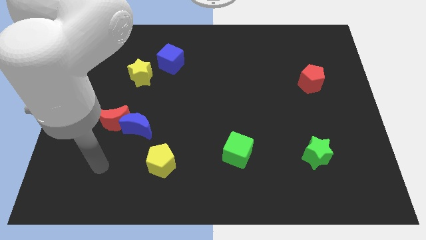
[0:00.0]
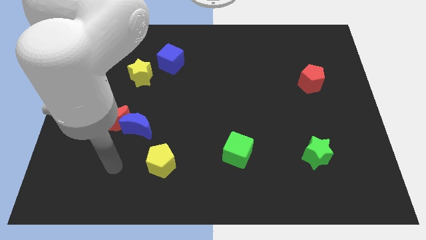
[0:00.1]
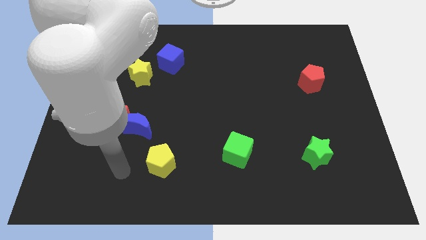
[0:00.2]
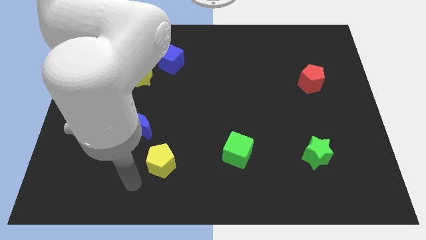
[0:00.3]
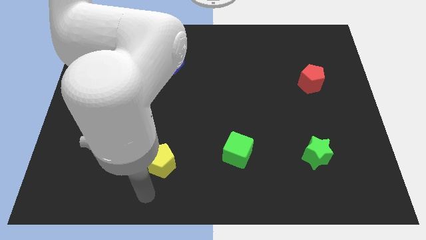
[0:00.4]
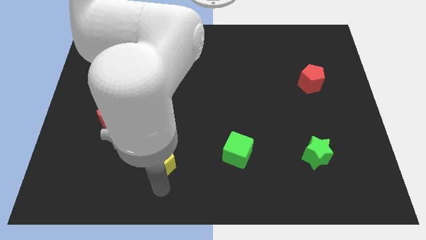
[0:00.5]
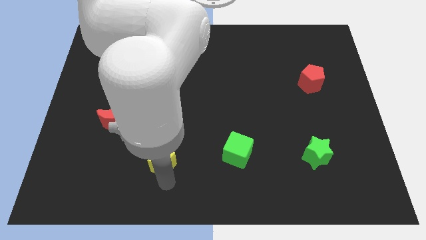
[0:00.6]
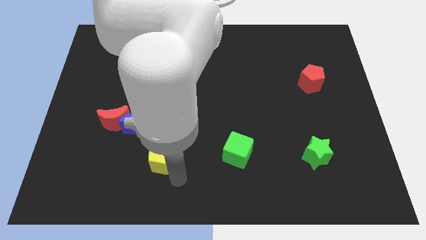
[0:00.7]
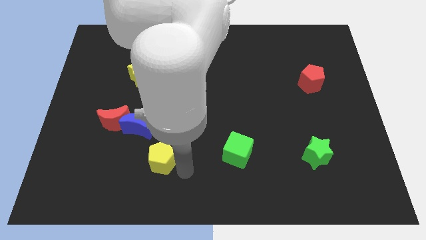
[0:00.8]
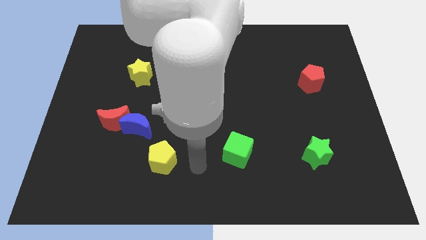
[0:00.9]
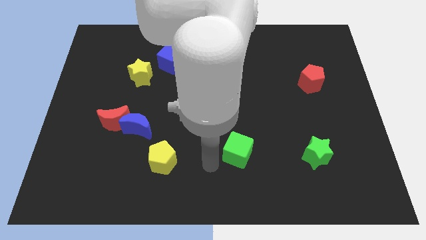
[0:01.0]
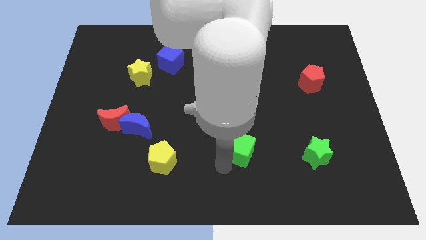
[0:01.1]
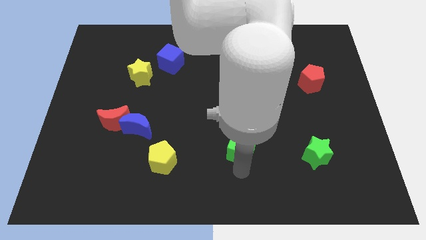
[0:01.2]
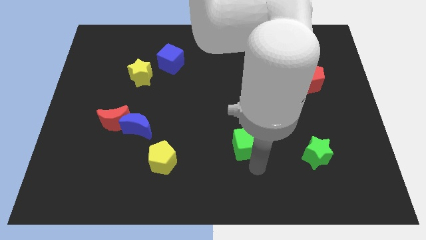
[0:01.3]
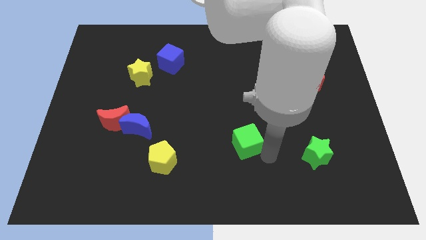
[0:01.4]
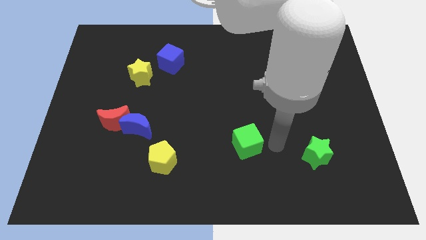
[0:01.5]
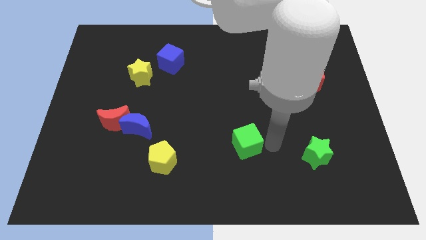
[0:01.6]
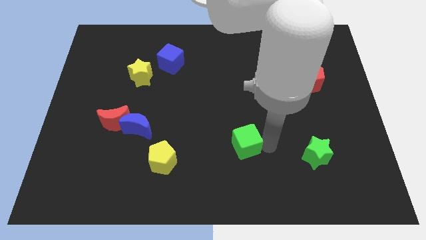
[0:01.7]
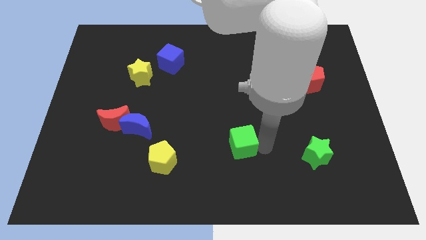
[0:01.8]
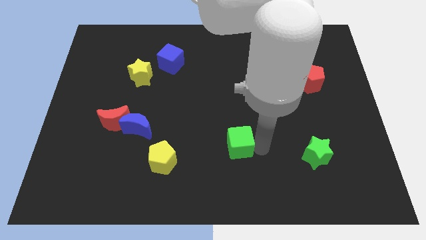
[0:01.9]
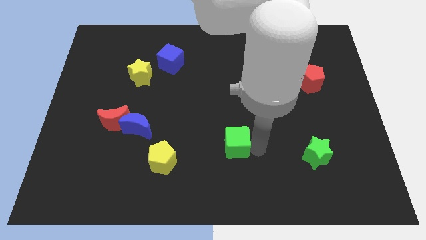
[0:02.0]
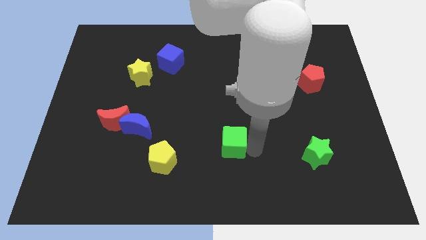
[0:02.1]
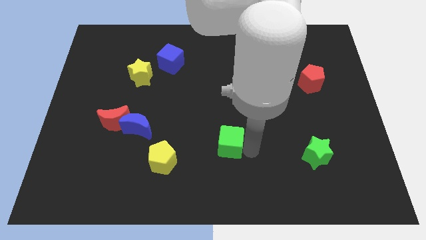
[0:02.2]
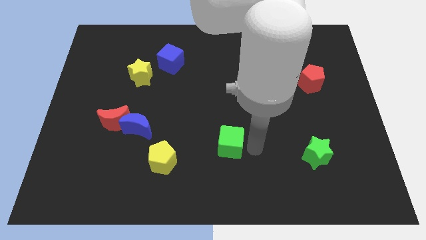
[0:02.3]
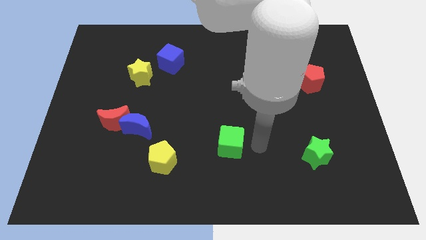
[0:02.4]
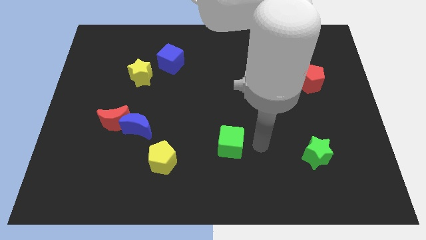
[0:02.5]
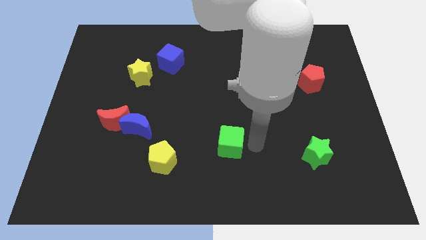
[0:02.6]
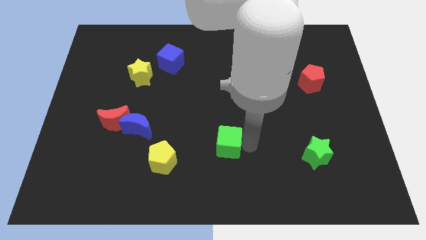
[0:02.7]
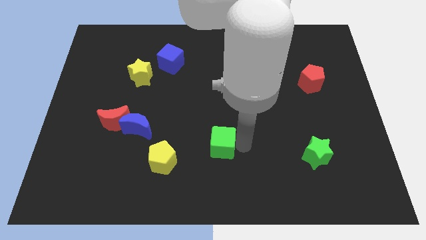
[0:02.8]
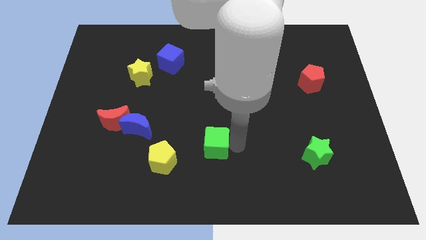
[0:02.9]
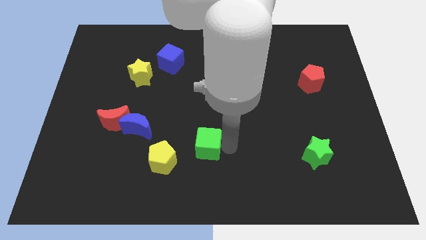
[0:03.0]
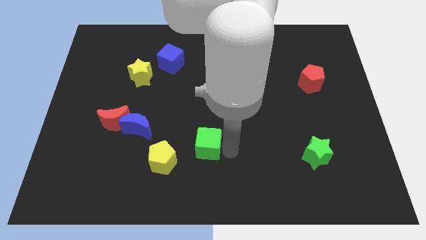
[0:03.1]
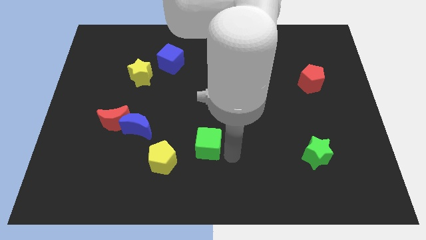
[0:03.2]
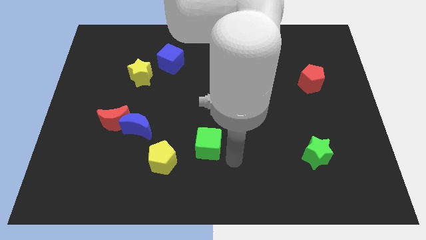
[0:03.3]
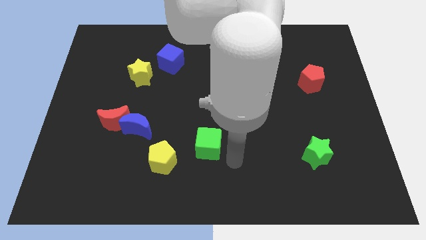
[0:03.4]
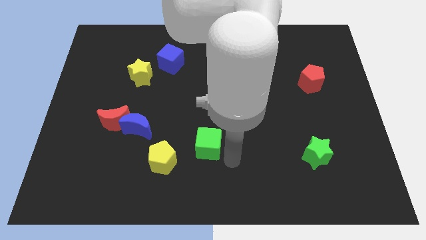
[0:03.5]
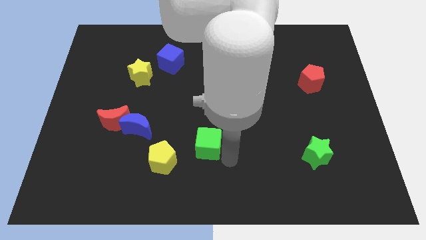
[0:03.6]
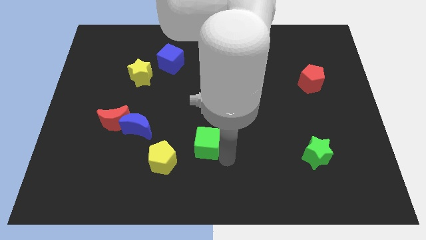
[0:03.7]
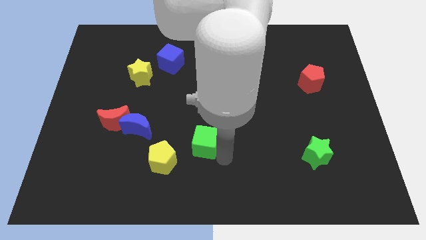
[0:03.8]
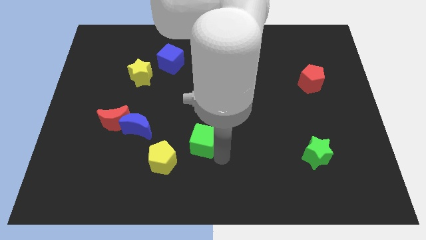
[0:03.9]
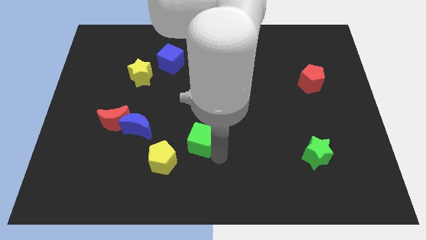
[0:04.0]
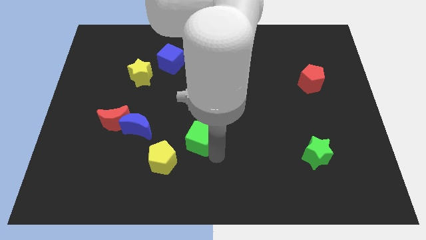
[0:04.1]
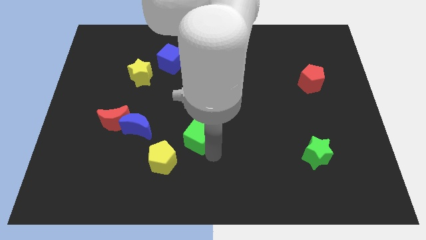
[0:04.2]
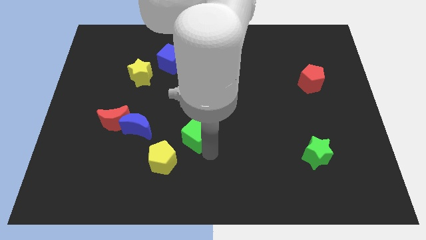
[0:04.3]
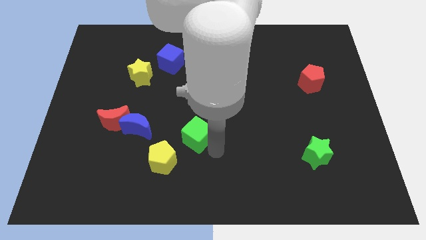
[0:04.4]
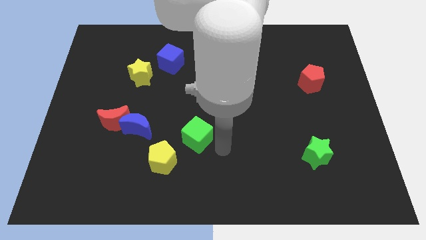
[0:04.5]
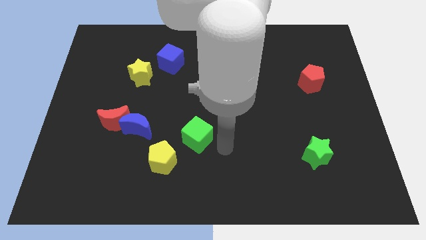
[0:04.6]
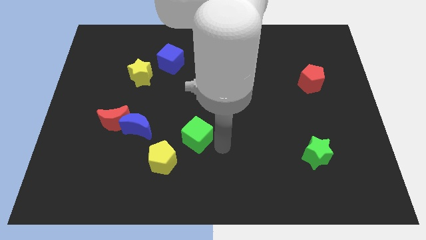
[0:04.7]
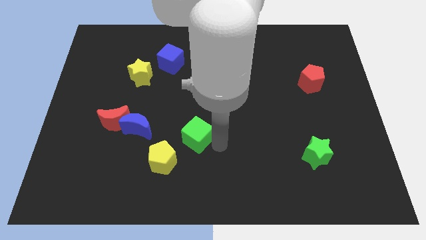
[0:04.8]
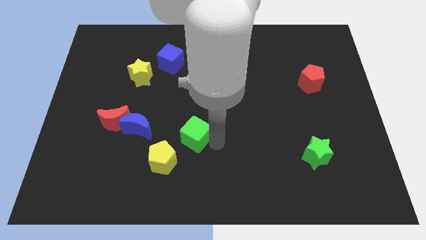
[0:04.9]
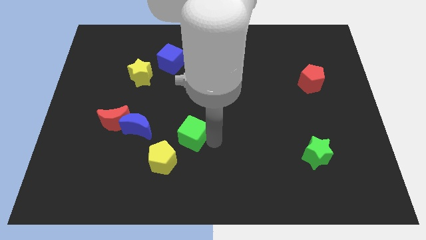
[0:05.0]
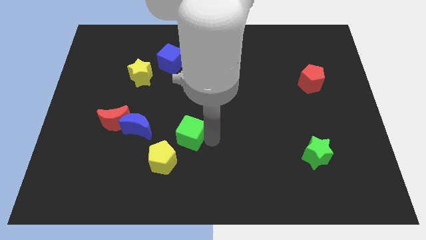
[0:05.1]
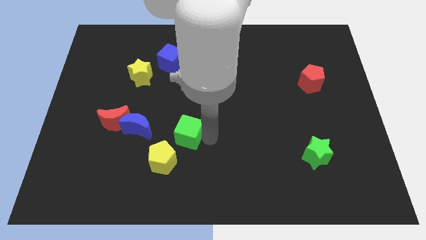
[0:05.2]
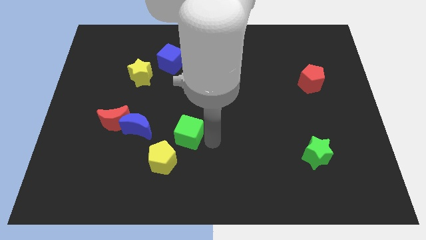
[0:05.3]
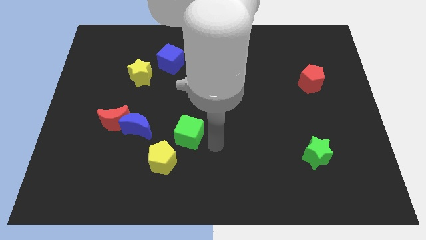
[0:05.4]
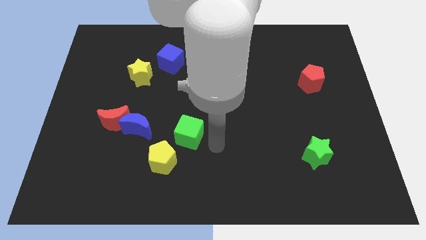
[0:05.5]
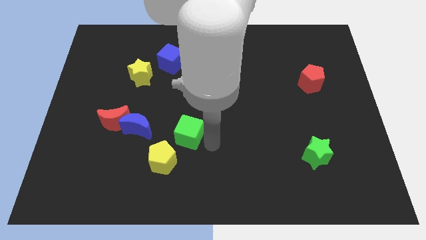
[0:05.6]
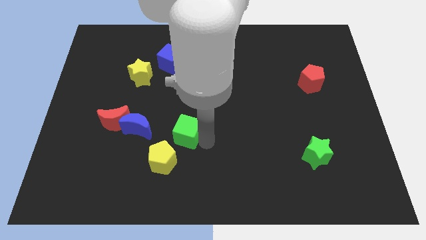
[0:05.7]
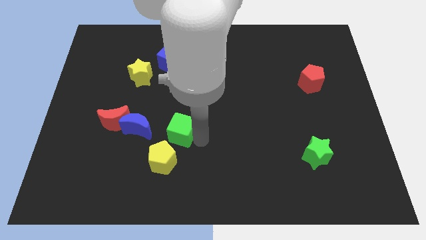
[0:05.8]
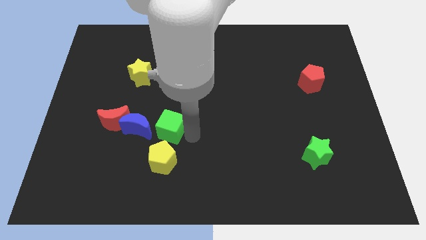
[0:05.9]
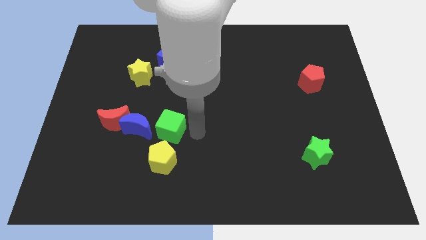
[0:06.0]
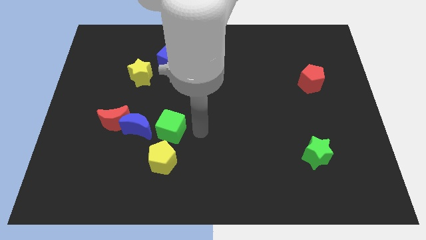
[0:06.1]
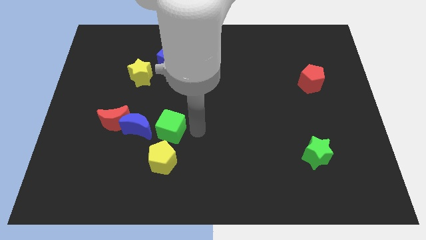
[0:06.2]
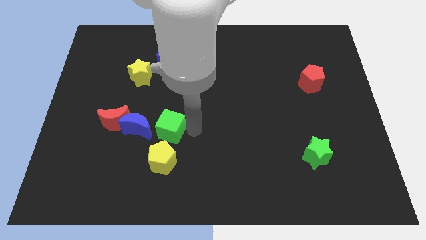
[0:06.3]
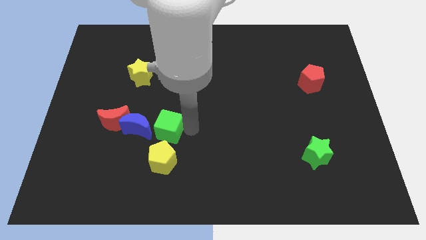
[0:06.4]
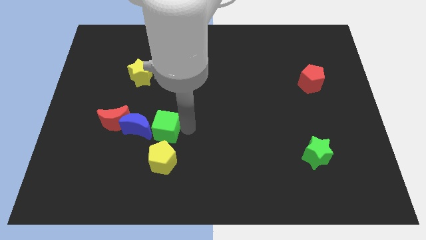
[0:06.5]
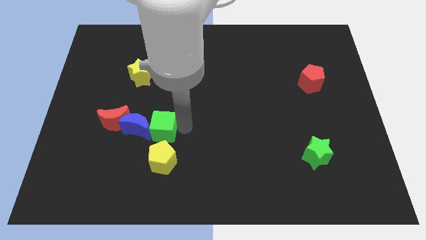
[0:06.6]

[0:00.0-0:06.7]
put the green cube towards the blue moon

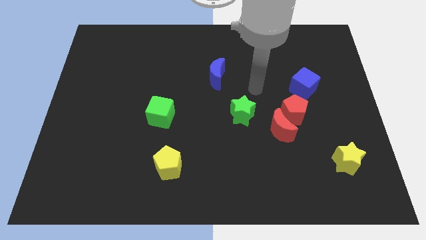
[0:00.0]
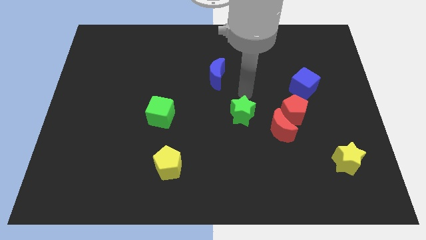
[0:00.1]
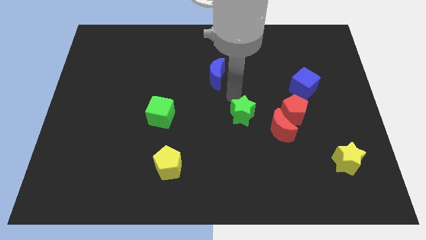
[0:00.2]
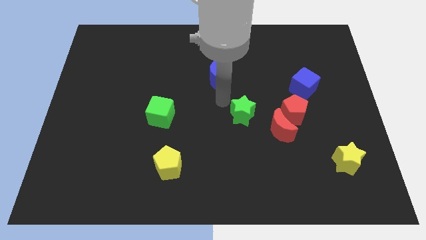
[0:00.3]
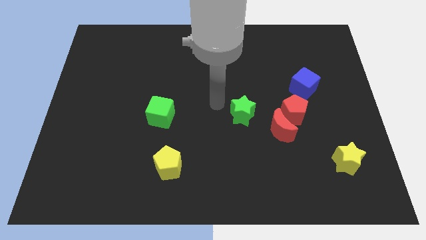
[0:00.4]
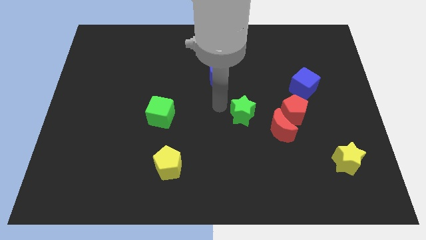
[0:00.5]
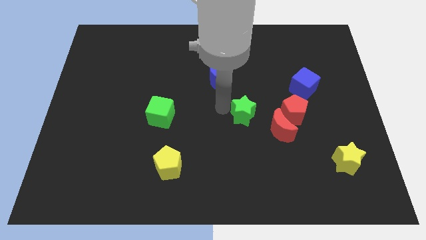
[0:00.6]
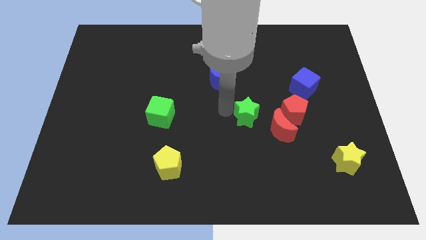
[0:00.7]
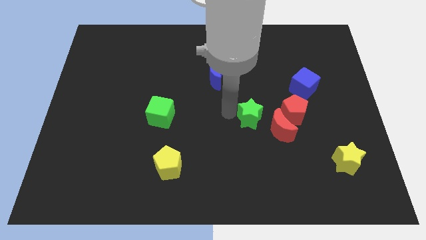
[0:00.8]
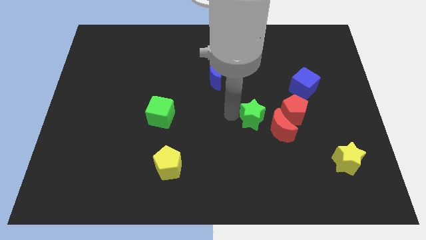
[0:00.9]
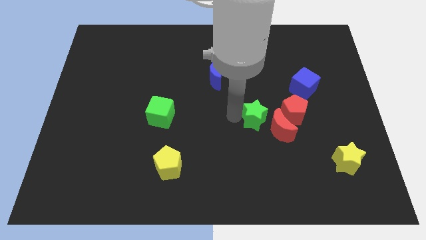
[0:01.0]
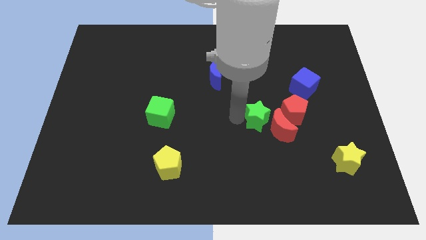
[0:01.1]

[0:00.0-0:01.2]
slide the green star towards the red moon
